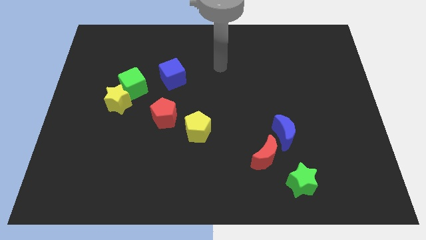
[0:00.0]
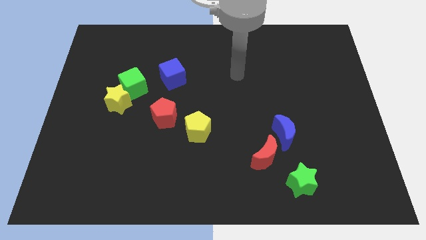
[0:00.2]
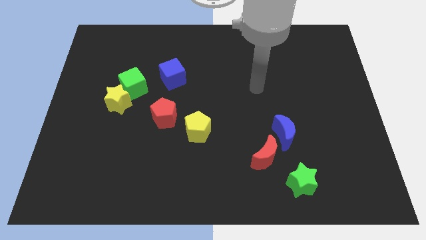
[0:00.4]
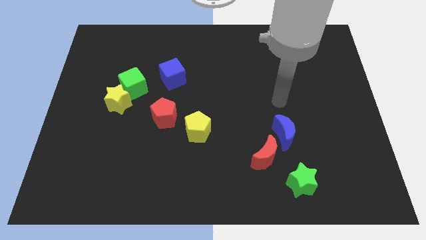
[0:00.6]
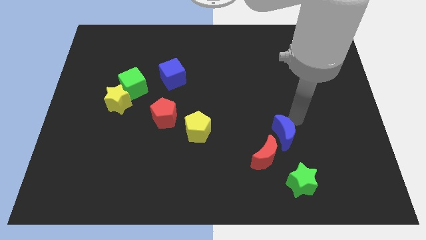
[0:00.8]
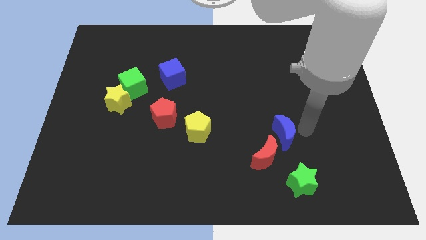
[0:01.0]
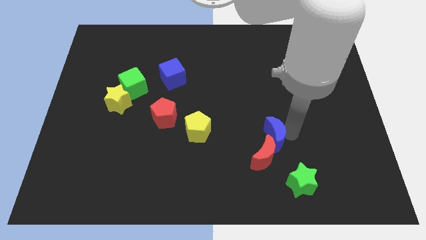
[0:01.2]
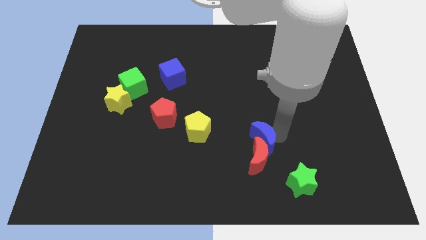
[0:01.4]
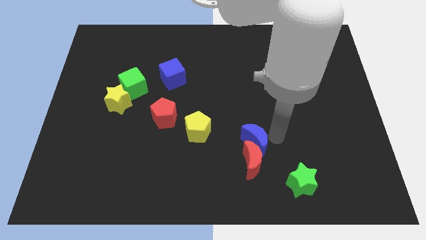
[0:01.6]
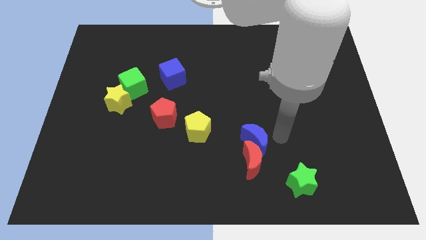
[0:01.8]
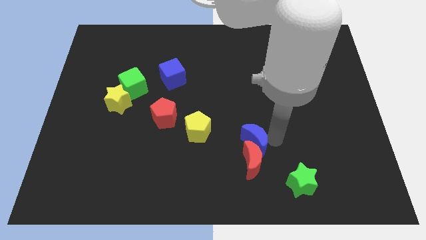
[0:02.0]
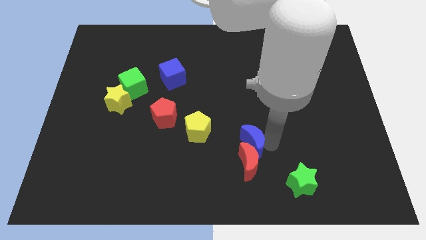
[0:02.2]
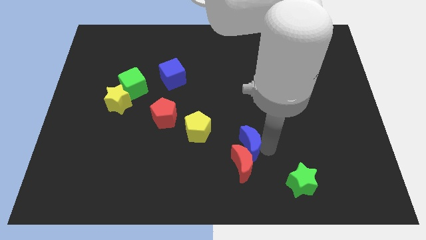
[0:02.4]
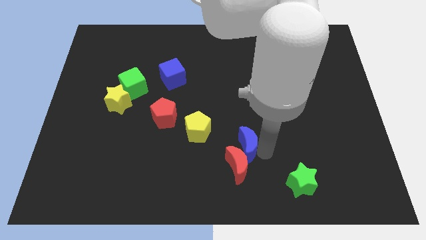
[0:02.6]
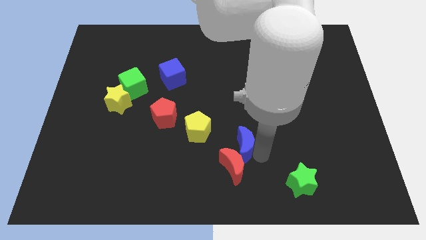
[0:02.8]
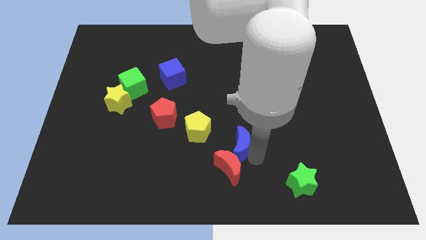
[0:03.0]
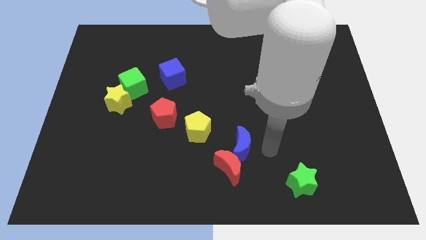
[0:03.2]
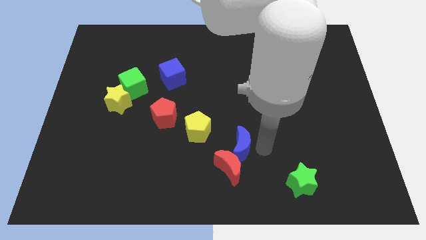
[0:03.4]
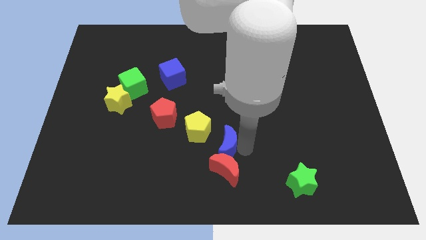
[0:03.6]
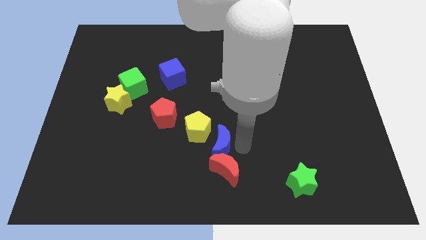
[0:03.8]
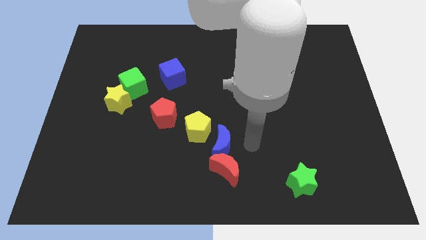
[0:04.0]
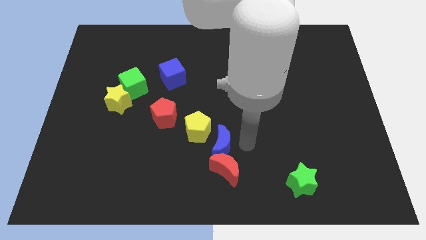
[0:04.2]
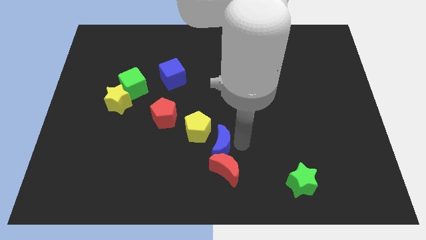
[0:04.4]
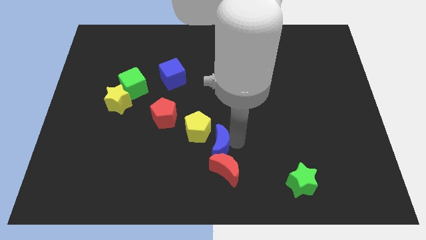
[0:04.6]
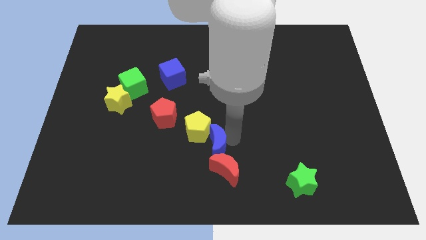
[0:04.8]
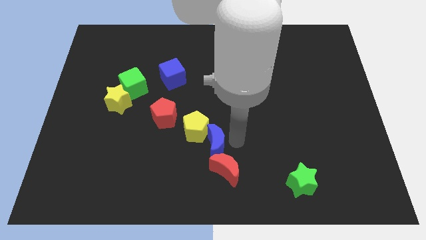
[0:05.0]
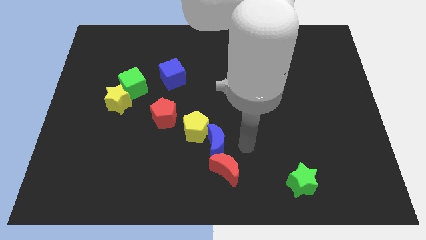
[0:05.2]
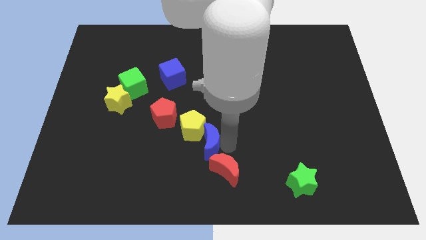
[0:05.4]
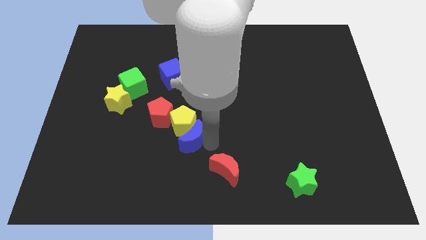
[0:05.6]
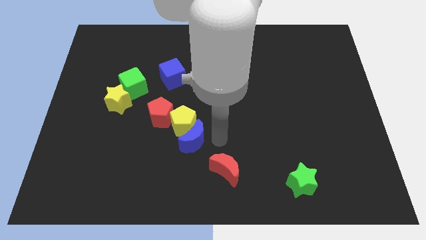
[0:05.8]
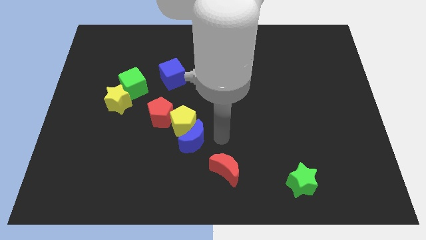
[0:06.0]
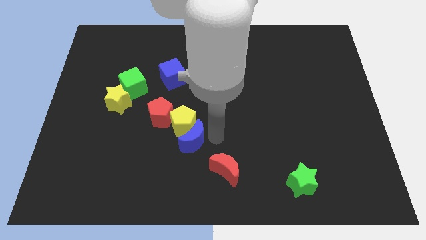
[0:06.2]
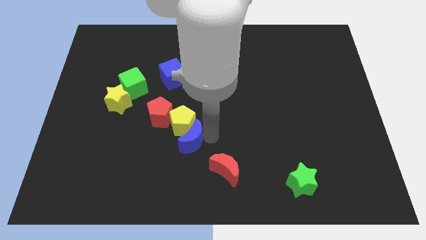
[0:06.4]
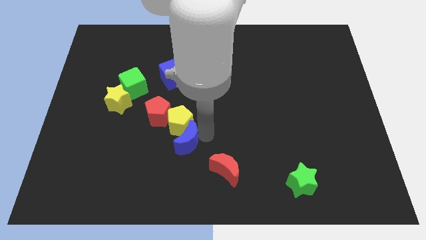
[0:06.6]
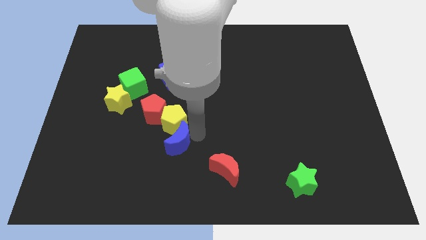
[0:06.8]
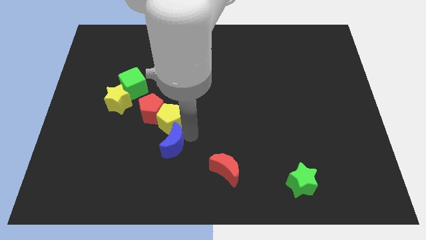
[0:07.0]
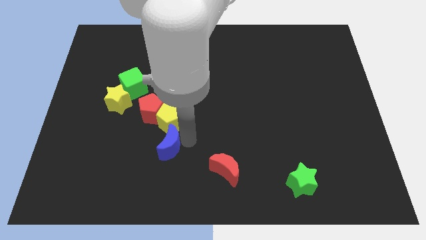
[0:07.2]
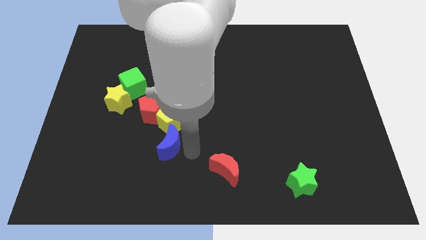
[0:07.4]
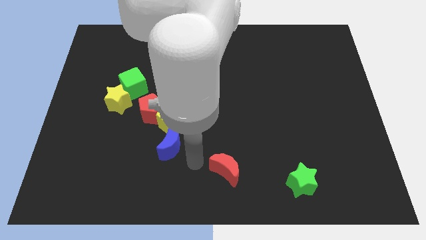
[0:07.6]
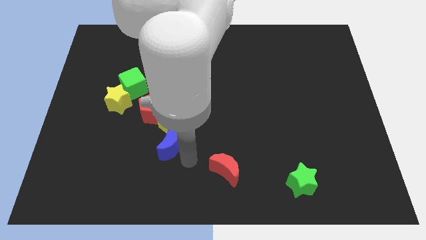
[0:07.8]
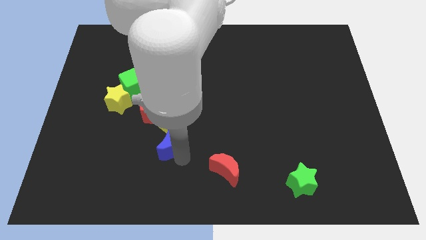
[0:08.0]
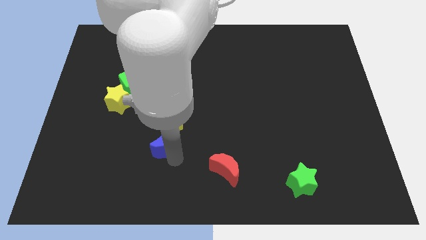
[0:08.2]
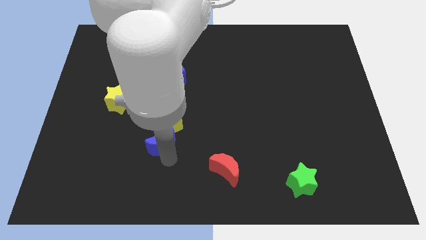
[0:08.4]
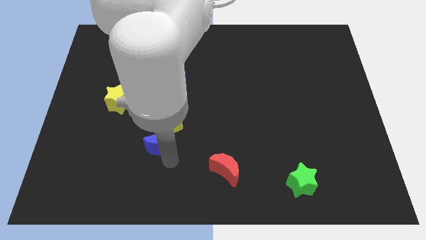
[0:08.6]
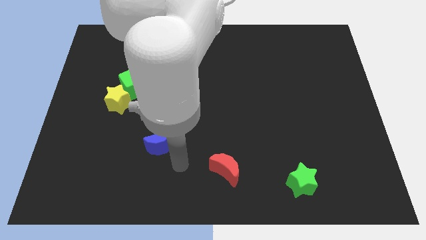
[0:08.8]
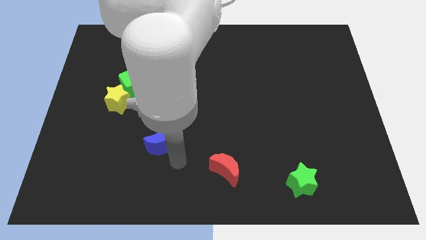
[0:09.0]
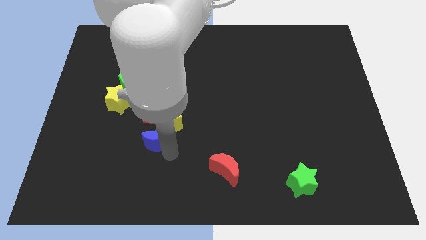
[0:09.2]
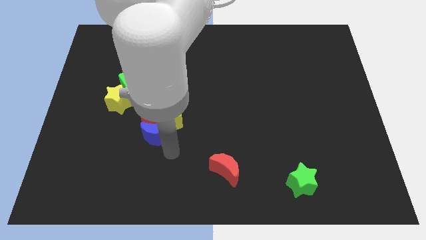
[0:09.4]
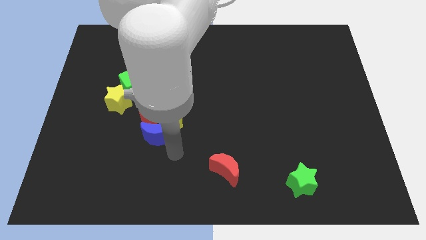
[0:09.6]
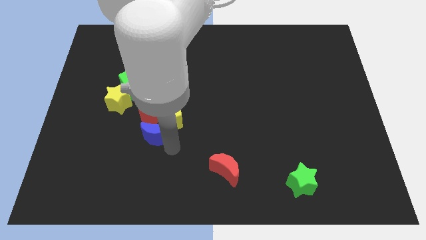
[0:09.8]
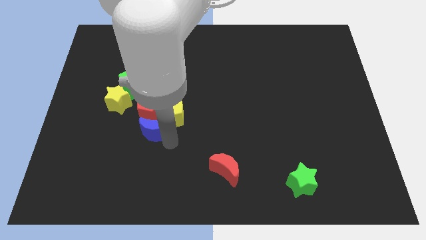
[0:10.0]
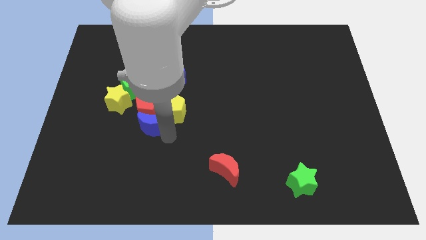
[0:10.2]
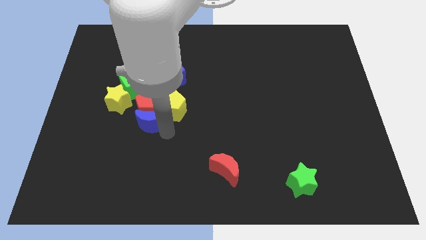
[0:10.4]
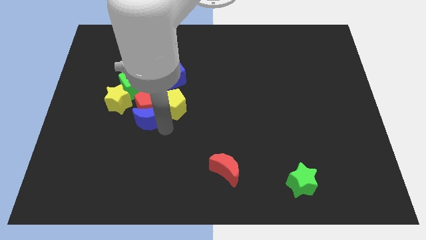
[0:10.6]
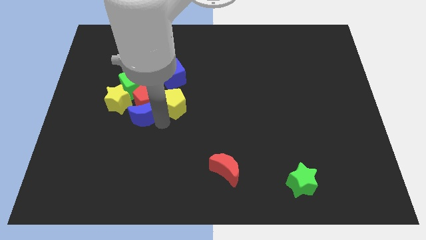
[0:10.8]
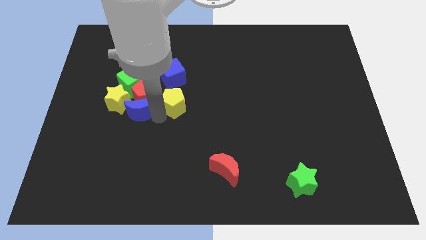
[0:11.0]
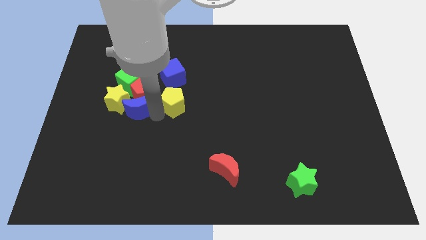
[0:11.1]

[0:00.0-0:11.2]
put the blue moon next to the yellow star

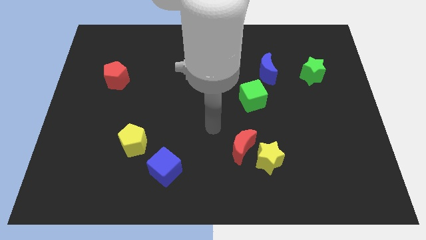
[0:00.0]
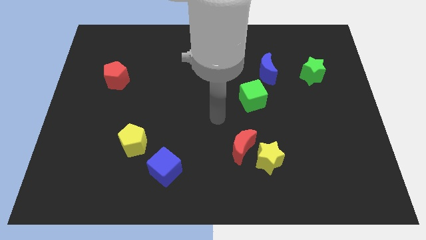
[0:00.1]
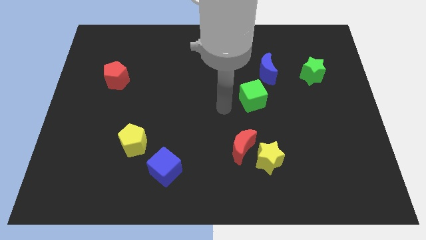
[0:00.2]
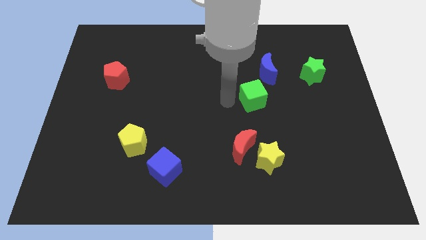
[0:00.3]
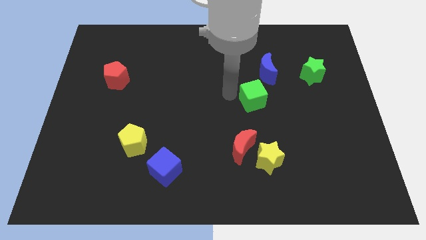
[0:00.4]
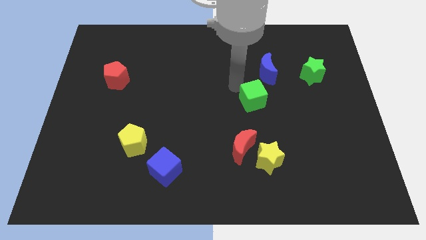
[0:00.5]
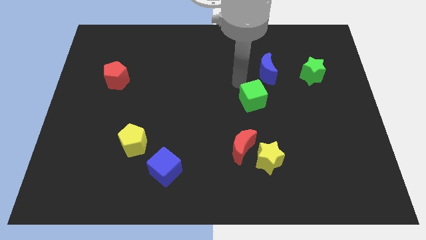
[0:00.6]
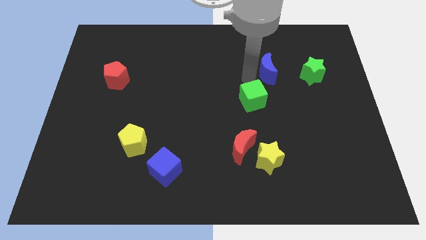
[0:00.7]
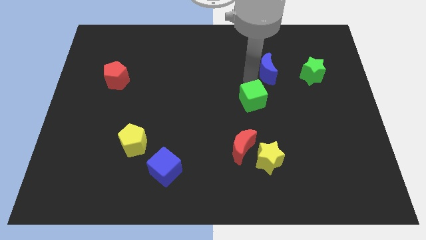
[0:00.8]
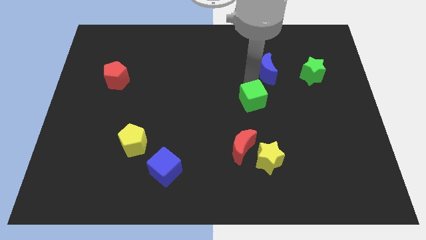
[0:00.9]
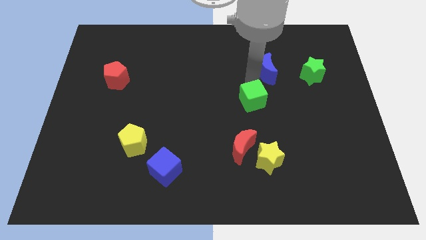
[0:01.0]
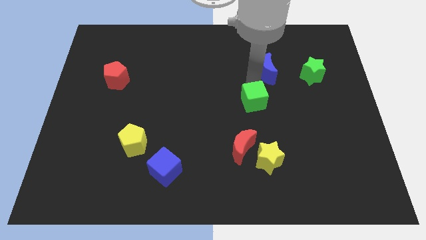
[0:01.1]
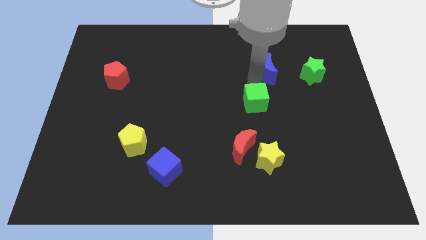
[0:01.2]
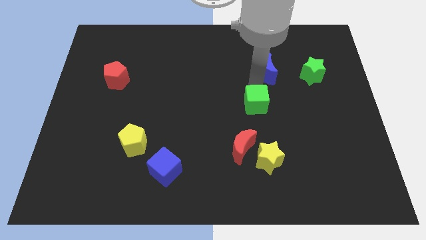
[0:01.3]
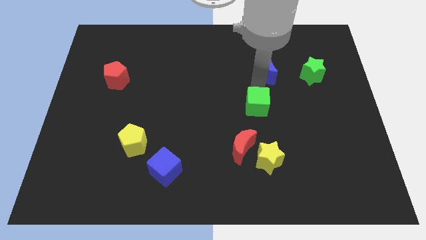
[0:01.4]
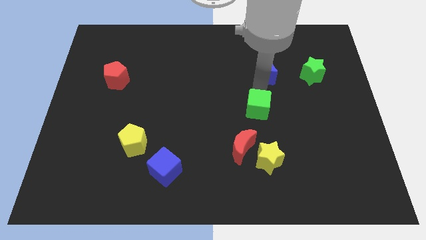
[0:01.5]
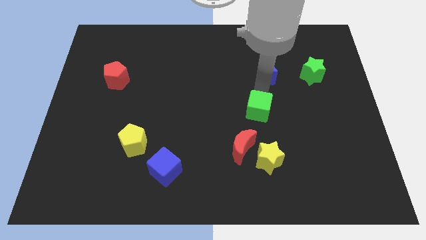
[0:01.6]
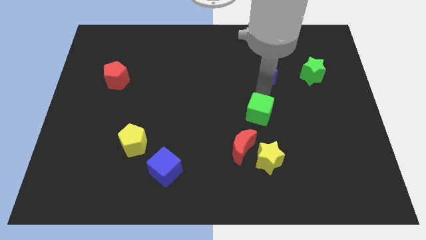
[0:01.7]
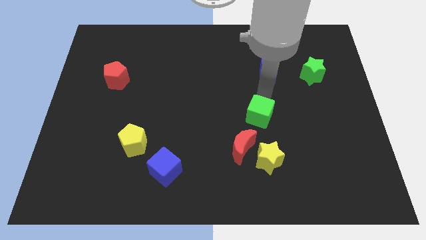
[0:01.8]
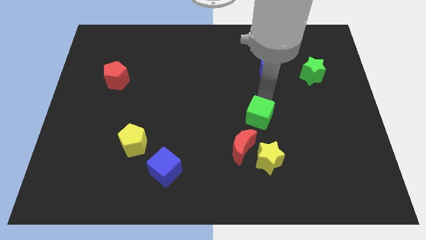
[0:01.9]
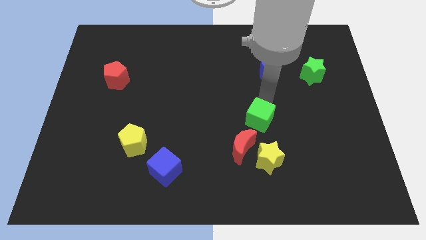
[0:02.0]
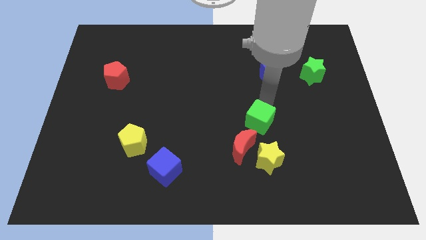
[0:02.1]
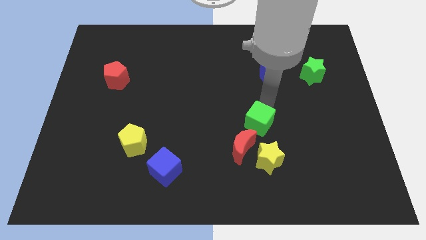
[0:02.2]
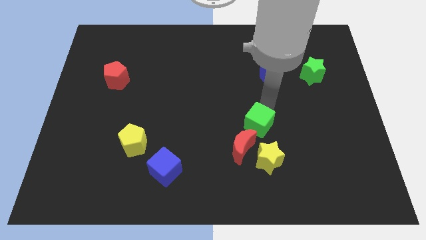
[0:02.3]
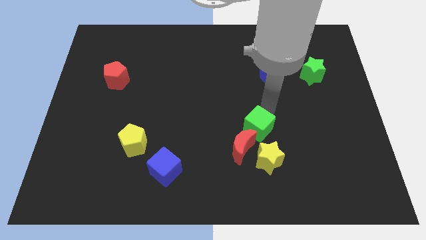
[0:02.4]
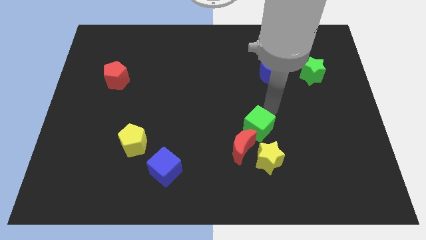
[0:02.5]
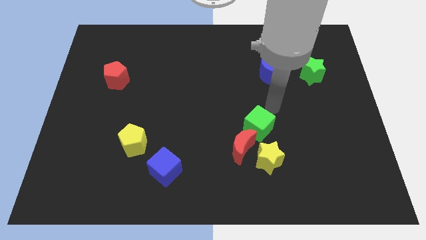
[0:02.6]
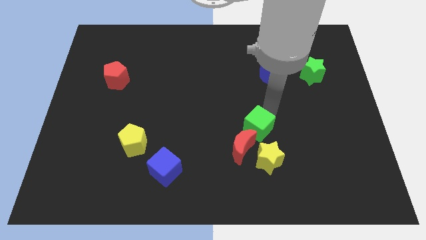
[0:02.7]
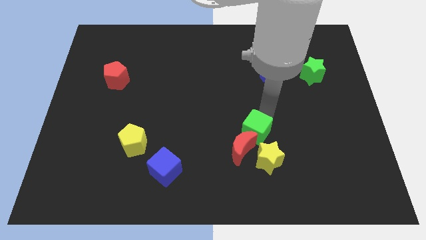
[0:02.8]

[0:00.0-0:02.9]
push the green cube next to the red moon
